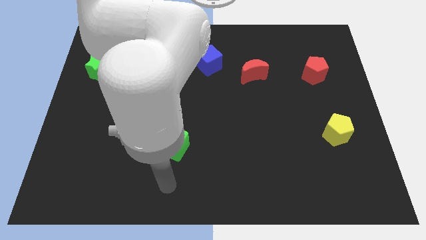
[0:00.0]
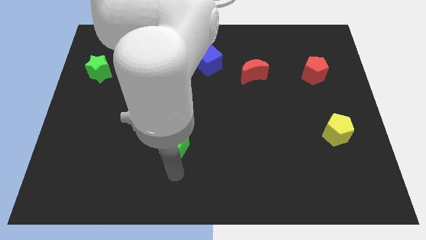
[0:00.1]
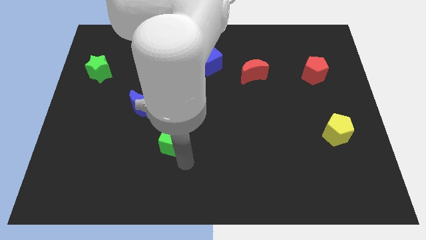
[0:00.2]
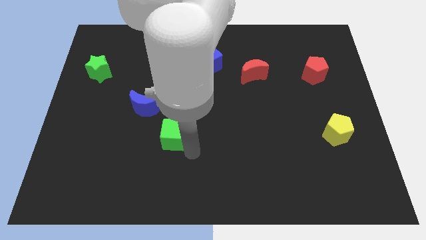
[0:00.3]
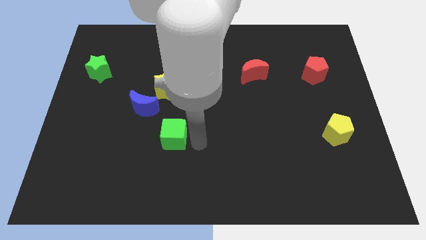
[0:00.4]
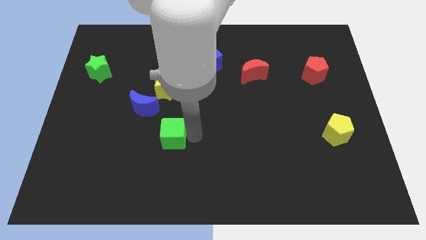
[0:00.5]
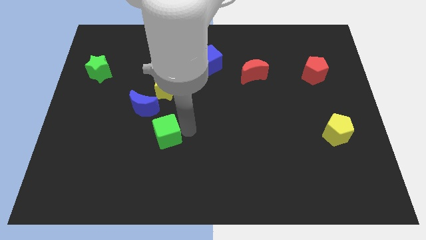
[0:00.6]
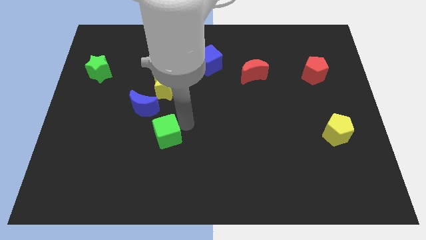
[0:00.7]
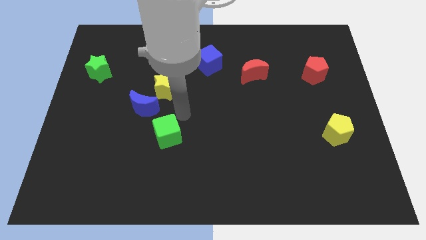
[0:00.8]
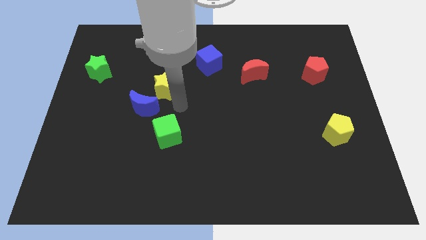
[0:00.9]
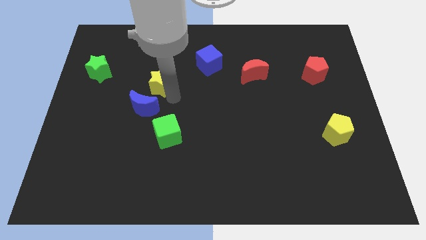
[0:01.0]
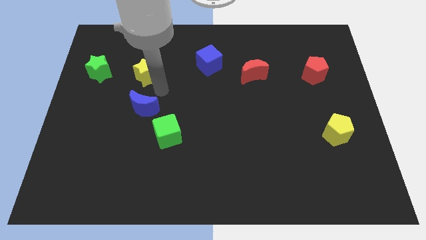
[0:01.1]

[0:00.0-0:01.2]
move the blue moon away from the yellow star

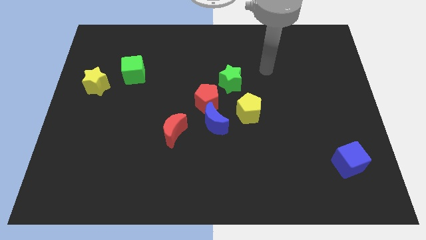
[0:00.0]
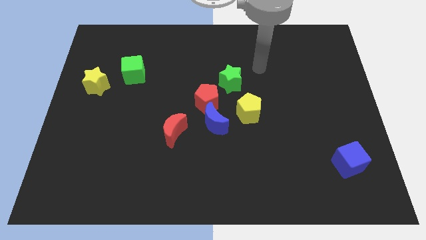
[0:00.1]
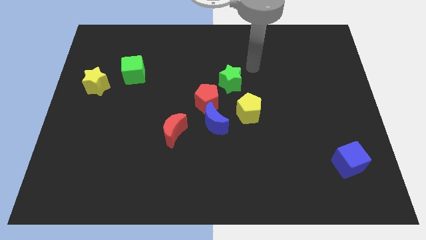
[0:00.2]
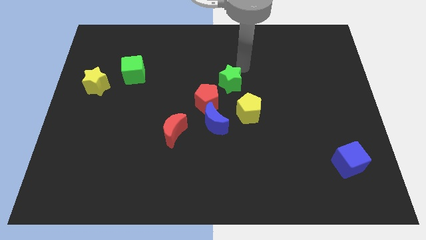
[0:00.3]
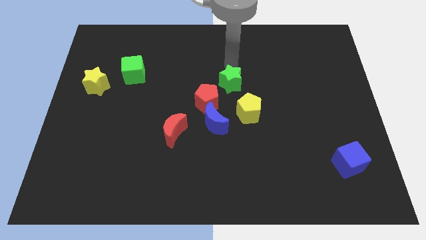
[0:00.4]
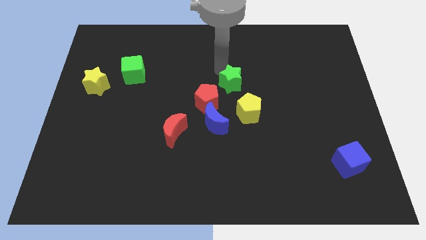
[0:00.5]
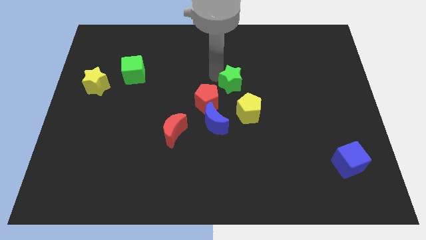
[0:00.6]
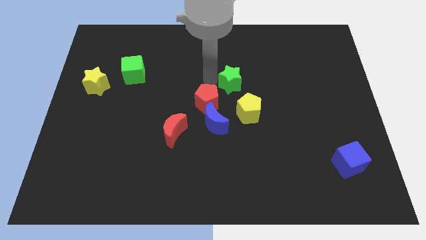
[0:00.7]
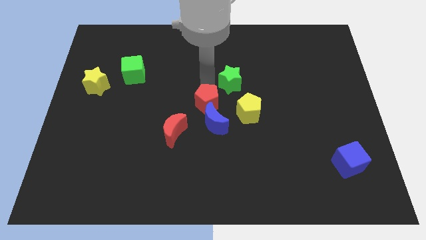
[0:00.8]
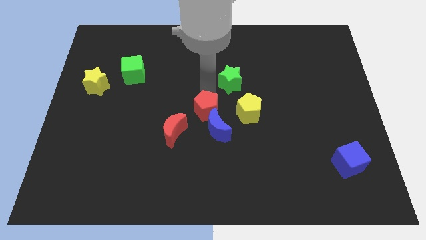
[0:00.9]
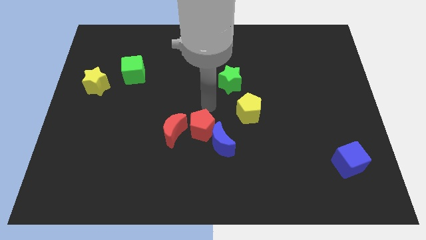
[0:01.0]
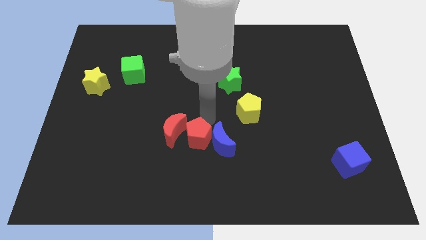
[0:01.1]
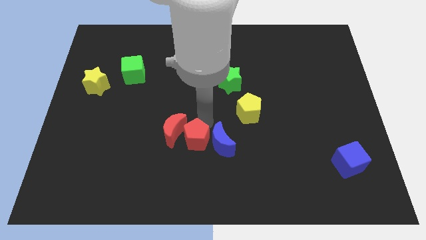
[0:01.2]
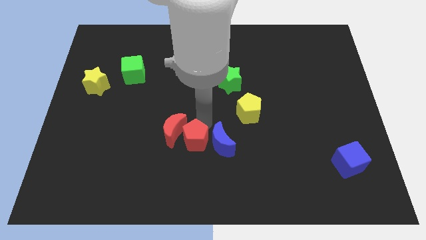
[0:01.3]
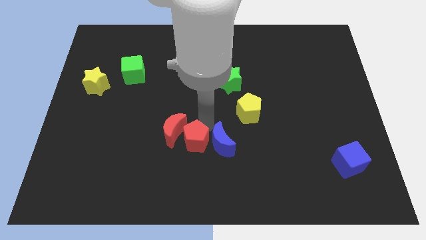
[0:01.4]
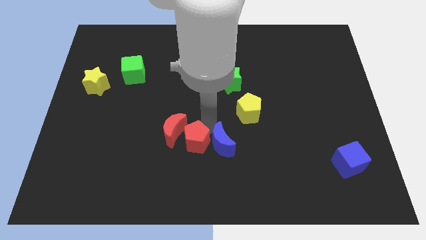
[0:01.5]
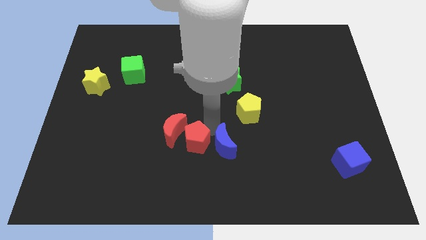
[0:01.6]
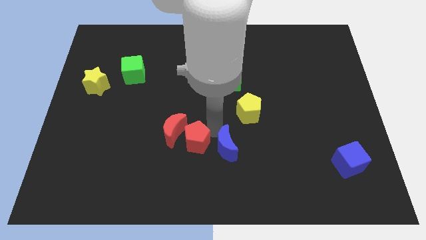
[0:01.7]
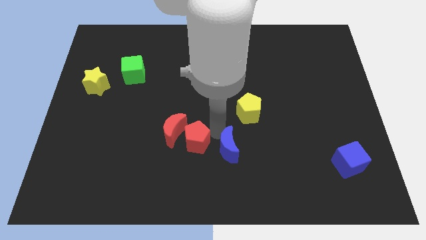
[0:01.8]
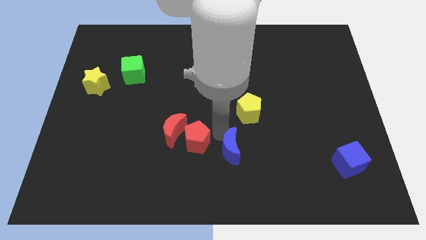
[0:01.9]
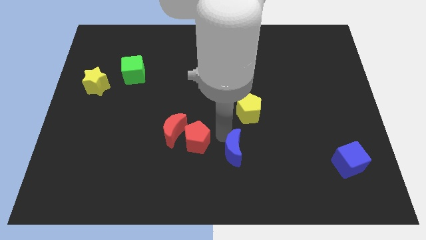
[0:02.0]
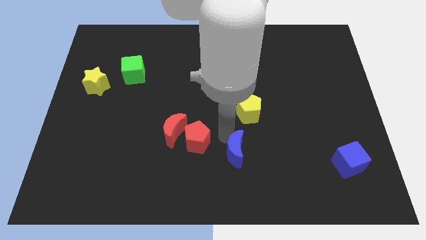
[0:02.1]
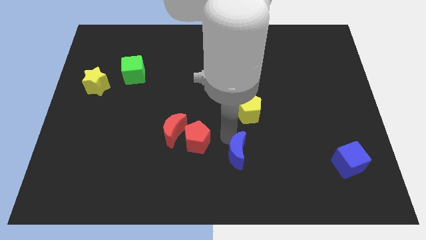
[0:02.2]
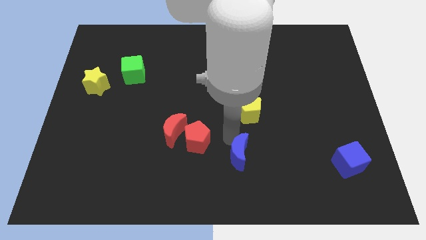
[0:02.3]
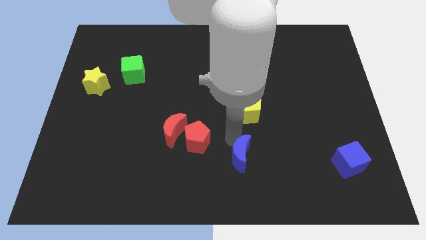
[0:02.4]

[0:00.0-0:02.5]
pull the blue moon apart from the group of blocks

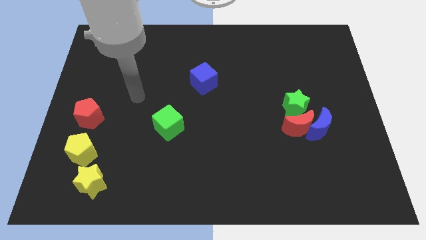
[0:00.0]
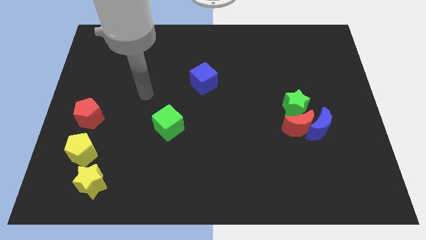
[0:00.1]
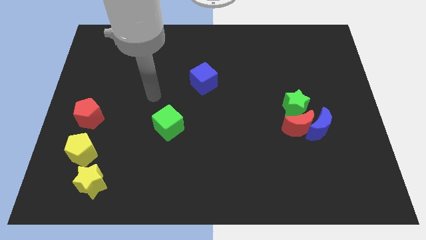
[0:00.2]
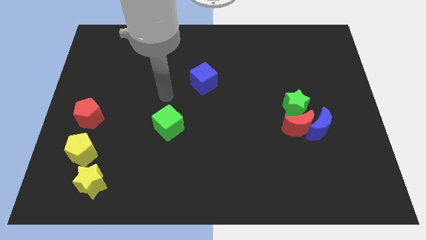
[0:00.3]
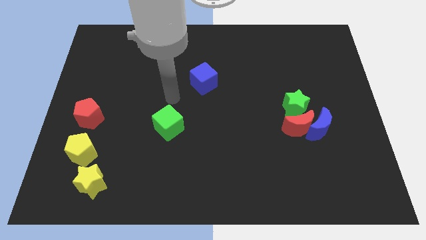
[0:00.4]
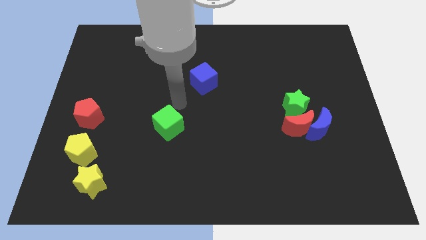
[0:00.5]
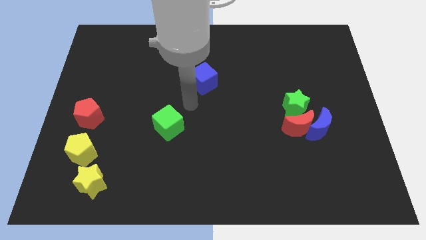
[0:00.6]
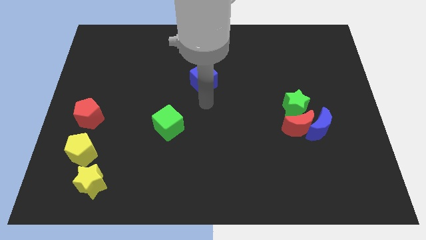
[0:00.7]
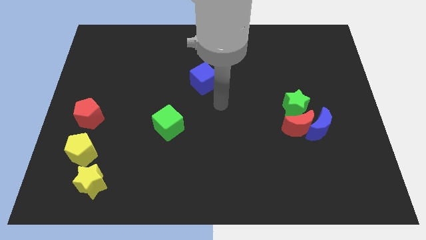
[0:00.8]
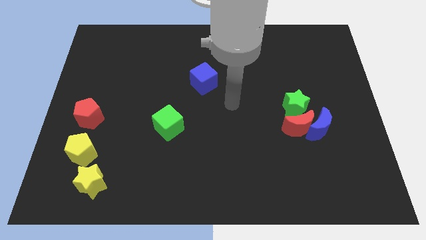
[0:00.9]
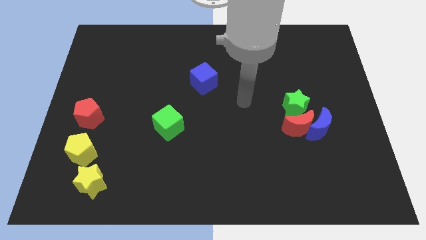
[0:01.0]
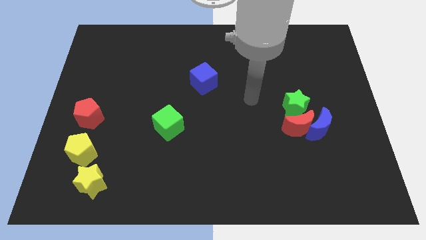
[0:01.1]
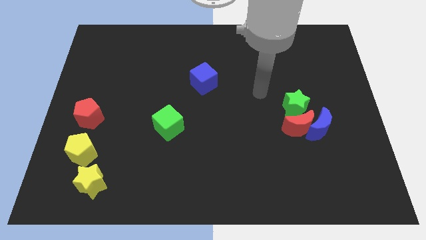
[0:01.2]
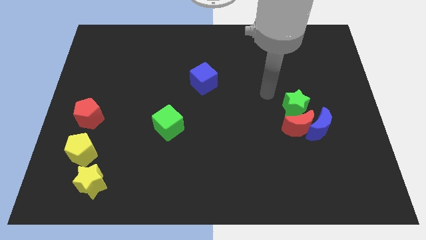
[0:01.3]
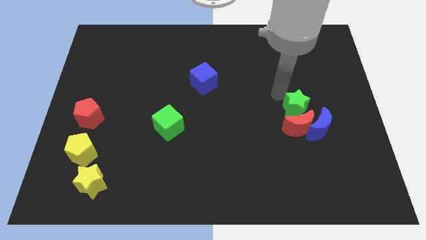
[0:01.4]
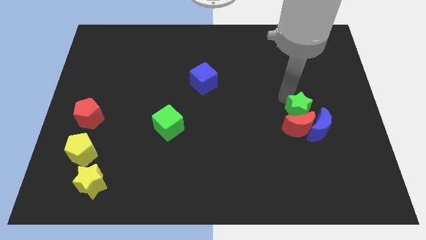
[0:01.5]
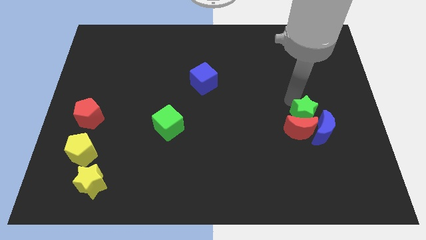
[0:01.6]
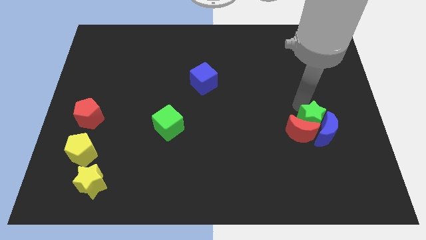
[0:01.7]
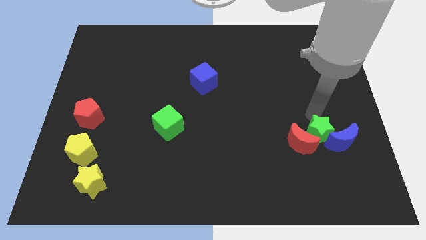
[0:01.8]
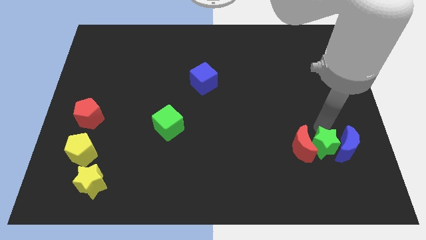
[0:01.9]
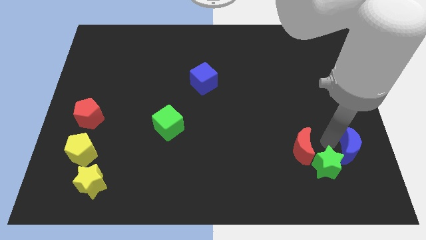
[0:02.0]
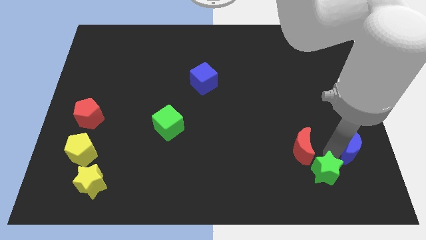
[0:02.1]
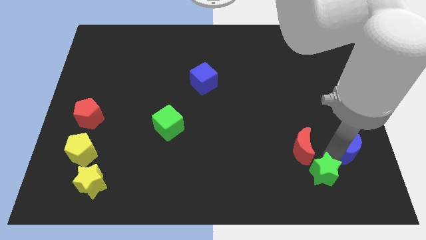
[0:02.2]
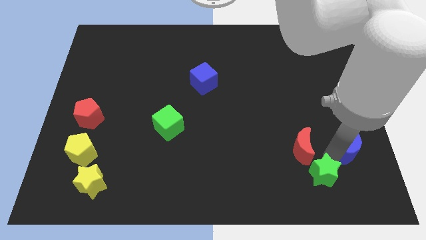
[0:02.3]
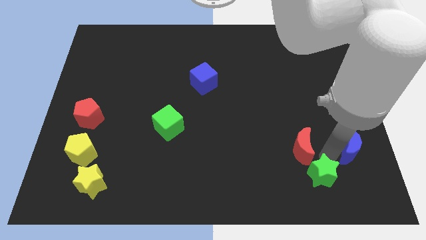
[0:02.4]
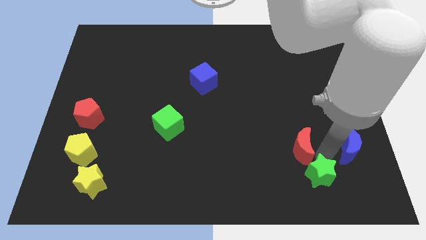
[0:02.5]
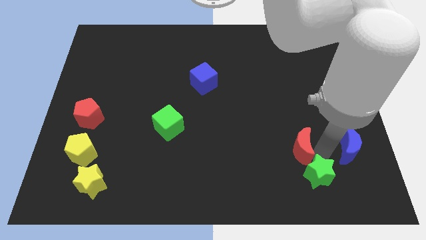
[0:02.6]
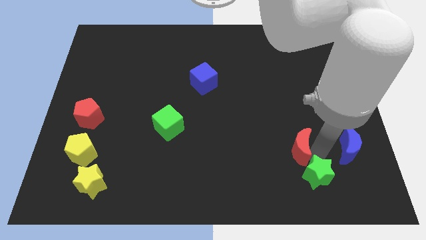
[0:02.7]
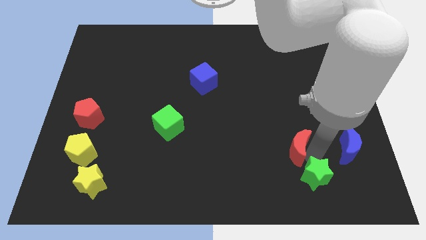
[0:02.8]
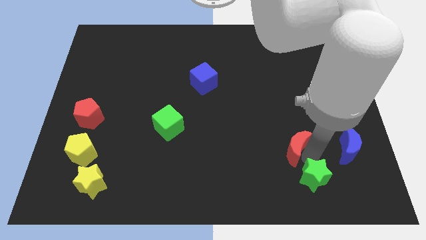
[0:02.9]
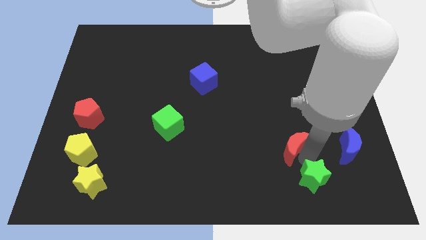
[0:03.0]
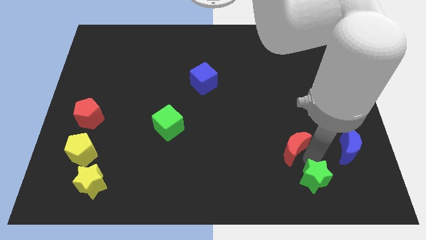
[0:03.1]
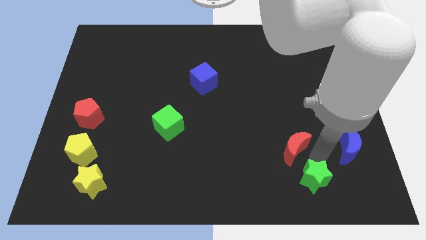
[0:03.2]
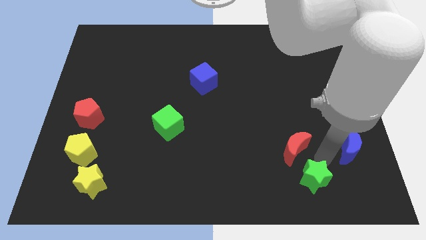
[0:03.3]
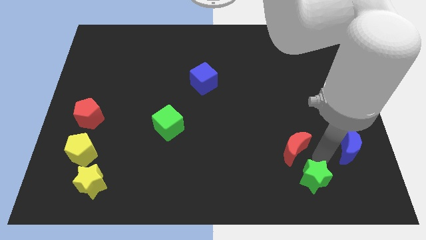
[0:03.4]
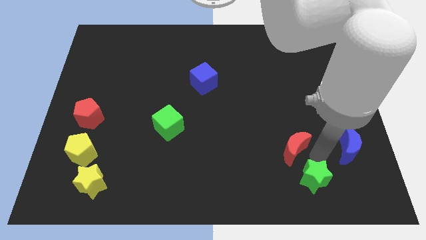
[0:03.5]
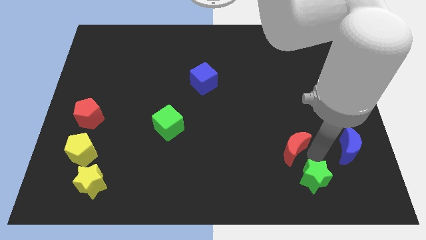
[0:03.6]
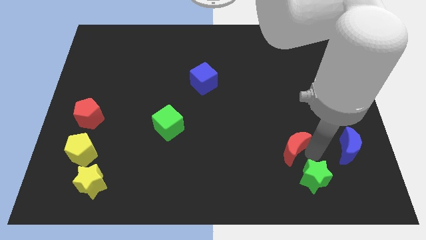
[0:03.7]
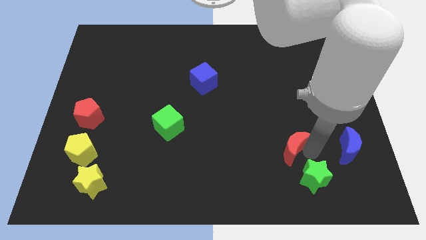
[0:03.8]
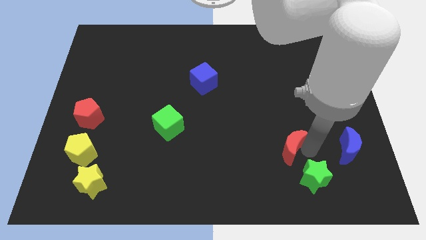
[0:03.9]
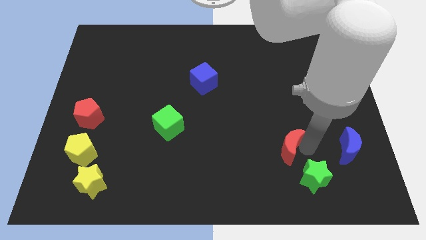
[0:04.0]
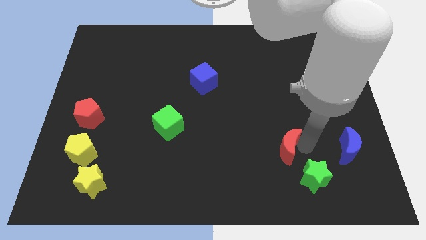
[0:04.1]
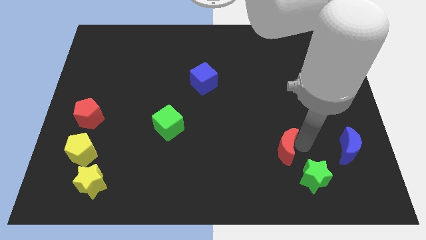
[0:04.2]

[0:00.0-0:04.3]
separate the red moon from the blue moon and green star

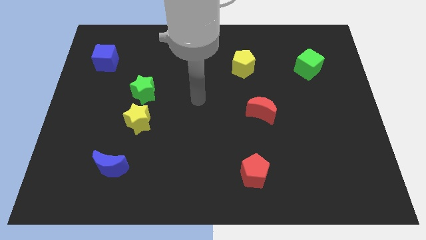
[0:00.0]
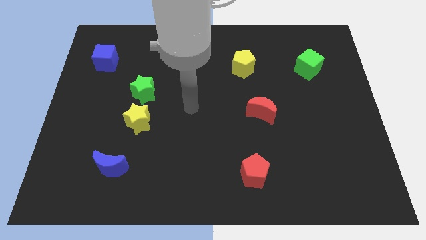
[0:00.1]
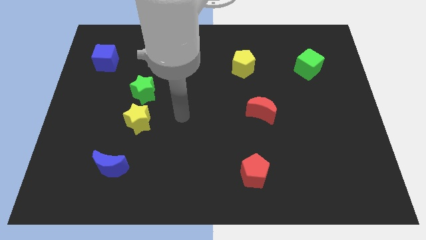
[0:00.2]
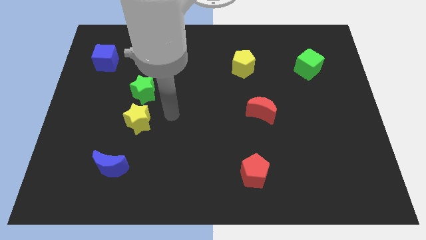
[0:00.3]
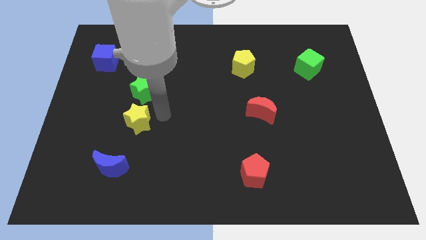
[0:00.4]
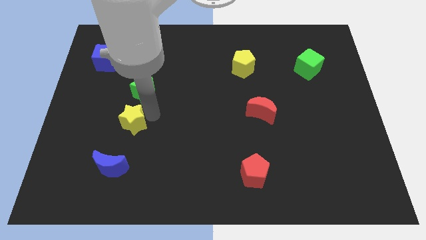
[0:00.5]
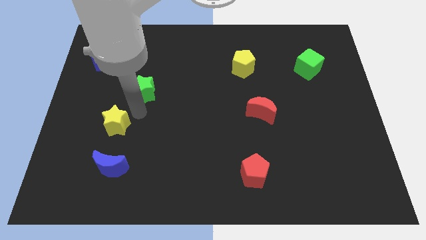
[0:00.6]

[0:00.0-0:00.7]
move the green star away from the yellow star

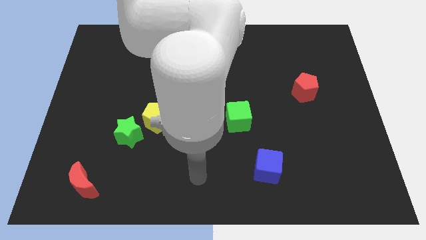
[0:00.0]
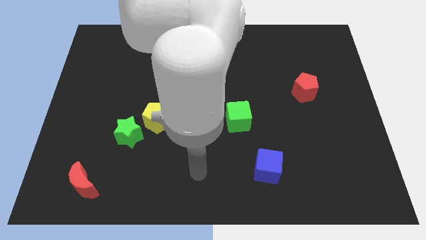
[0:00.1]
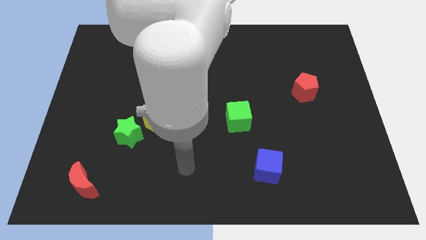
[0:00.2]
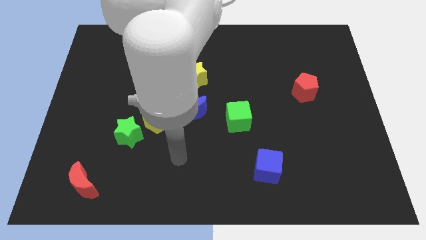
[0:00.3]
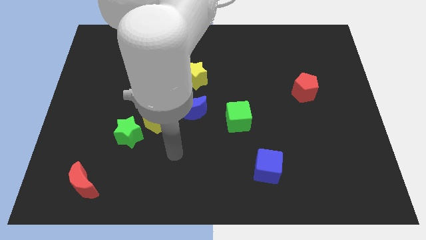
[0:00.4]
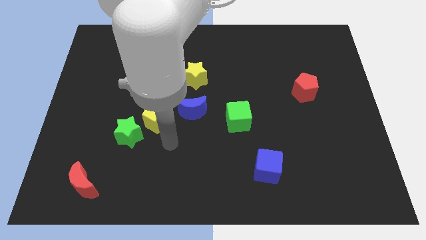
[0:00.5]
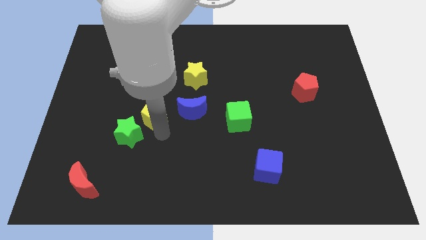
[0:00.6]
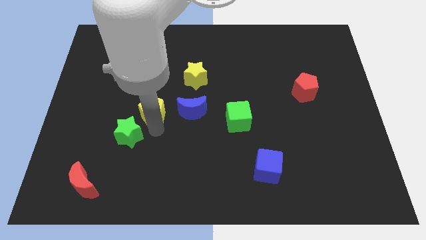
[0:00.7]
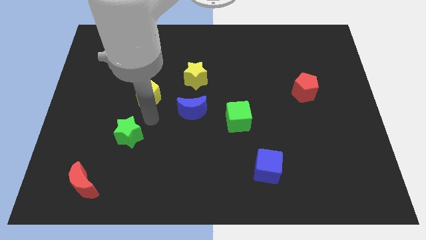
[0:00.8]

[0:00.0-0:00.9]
move the green star away from the yellow pentagon
